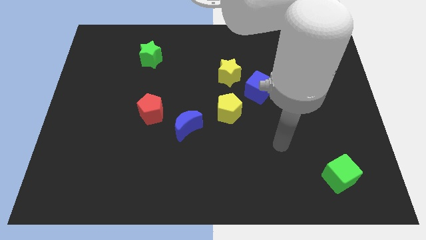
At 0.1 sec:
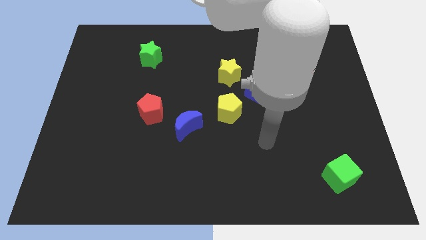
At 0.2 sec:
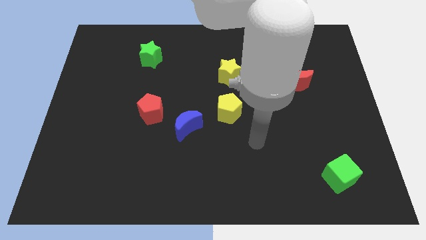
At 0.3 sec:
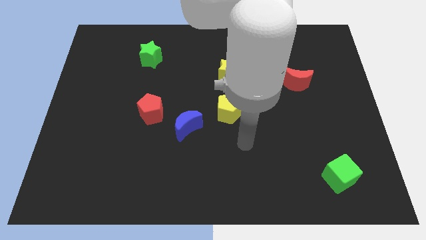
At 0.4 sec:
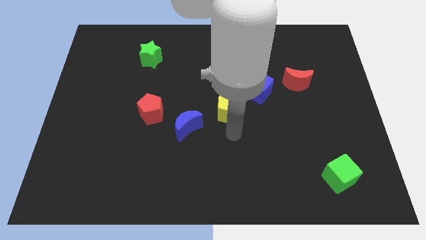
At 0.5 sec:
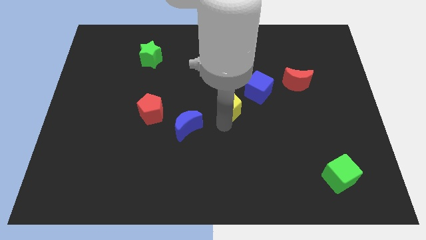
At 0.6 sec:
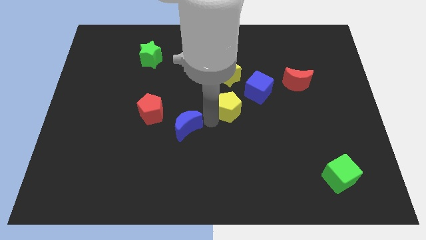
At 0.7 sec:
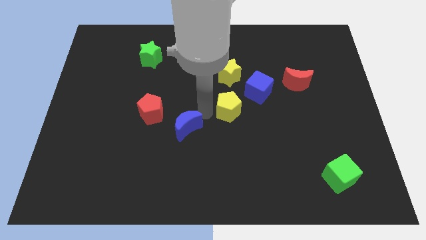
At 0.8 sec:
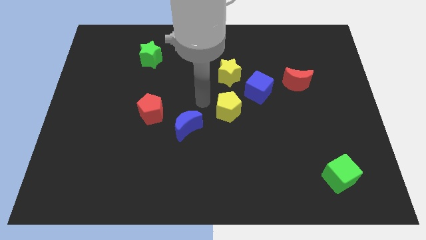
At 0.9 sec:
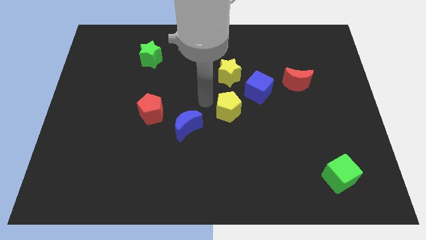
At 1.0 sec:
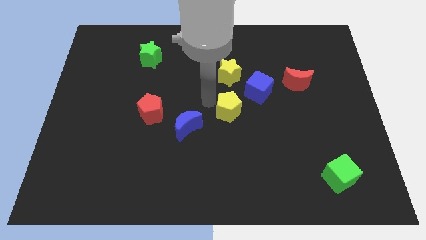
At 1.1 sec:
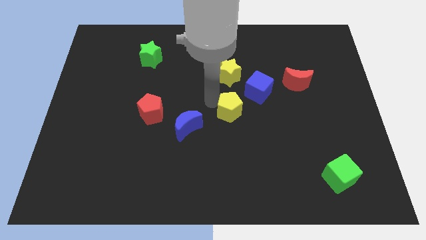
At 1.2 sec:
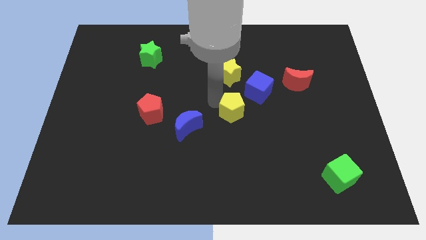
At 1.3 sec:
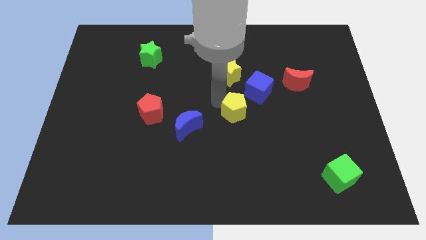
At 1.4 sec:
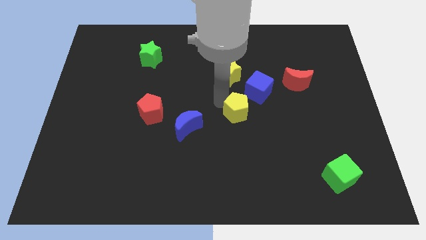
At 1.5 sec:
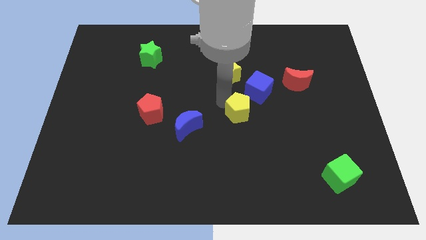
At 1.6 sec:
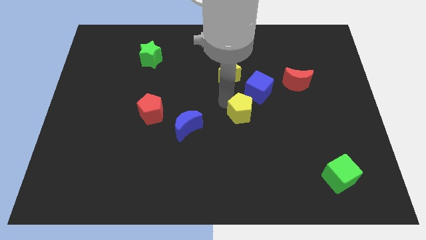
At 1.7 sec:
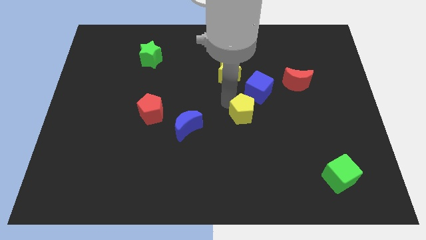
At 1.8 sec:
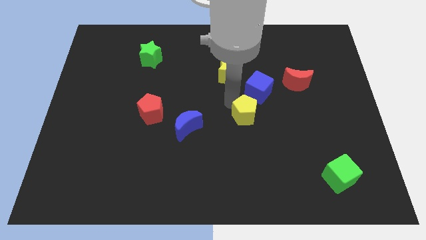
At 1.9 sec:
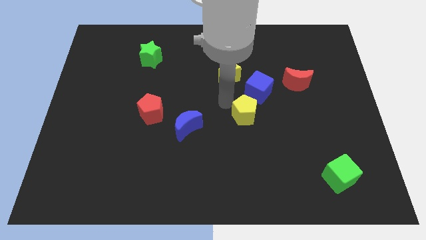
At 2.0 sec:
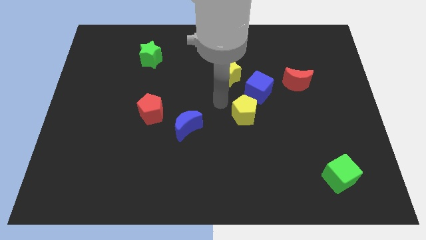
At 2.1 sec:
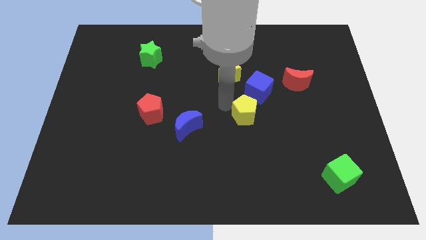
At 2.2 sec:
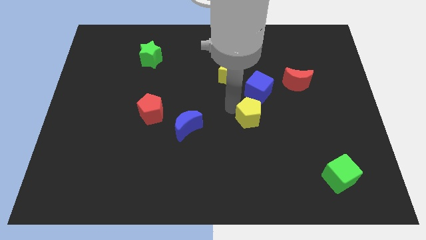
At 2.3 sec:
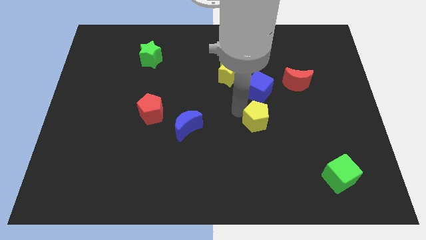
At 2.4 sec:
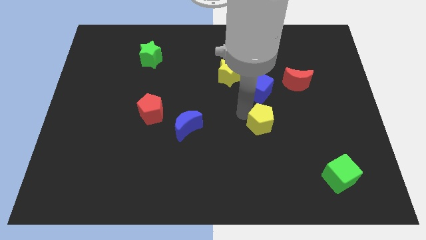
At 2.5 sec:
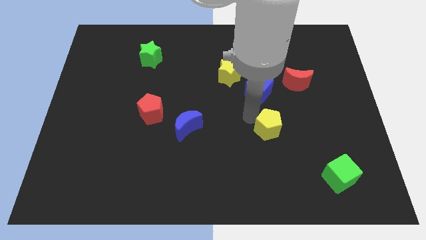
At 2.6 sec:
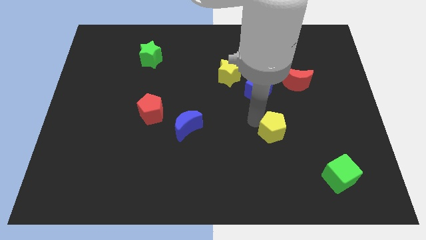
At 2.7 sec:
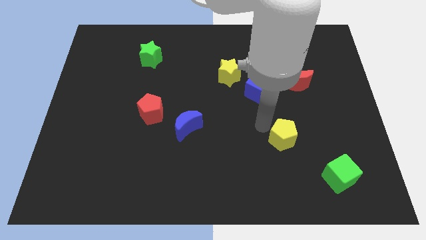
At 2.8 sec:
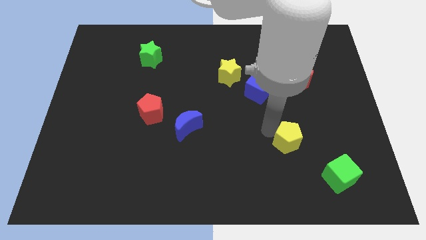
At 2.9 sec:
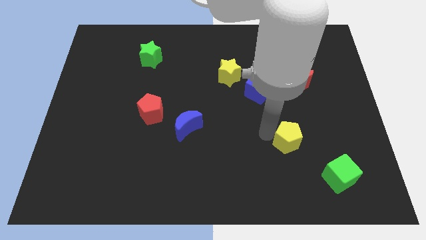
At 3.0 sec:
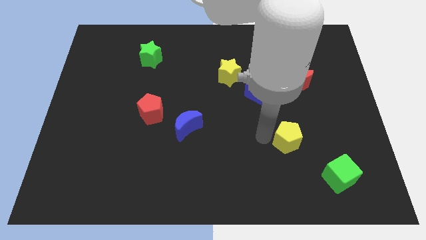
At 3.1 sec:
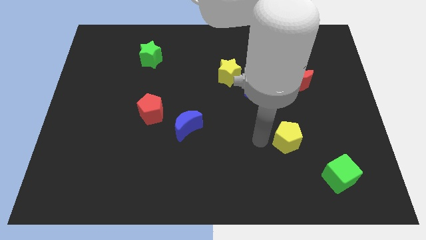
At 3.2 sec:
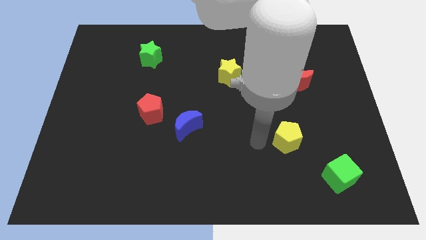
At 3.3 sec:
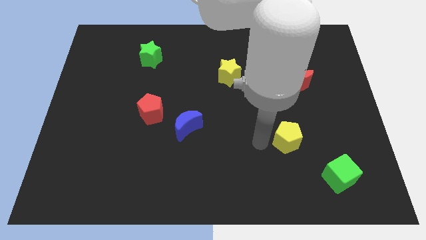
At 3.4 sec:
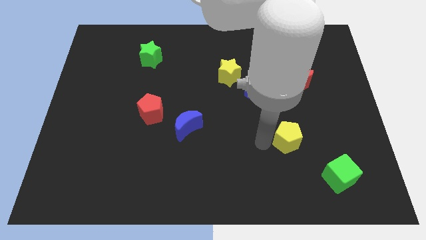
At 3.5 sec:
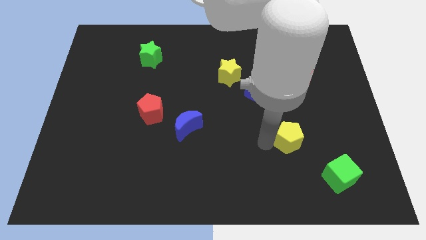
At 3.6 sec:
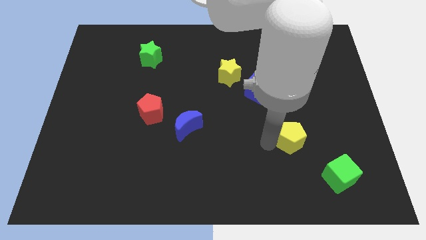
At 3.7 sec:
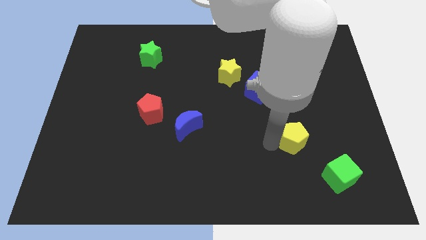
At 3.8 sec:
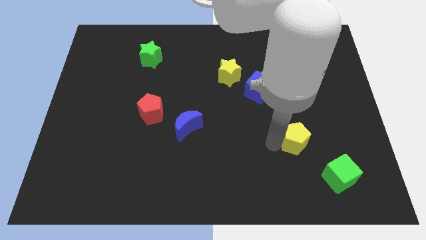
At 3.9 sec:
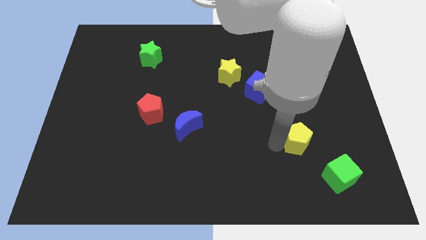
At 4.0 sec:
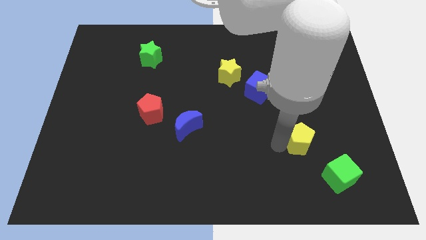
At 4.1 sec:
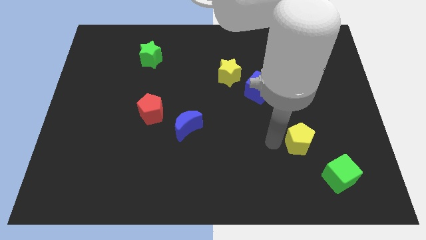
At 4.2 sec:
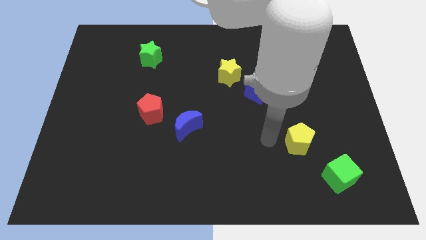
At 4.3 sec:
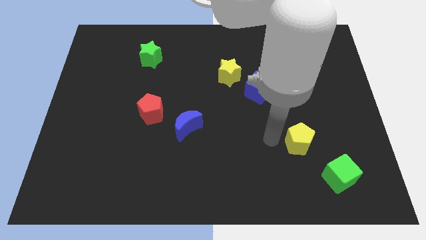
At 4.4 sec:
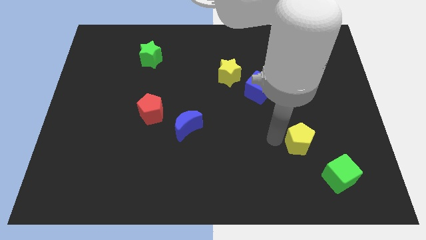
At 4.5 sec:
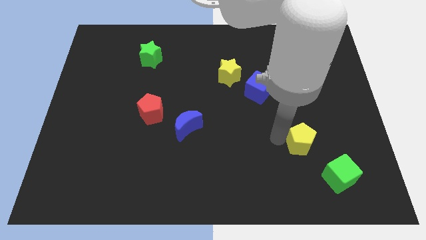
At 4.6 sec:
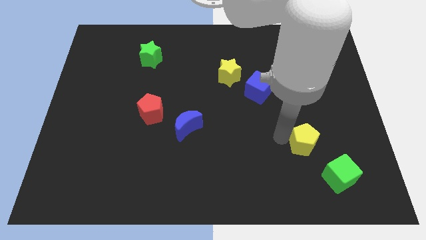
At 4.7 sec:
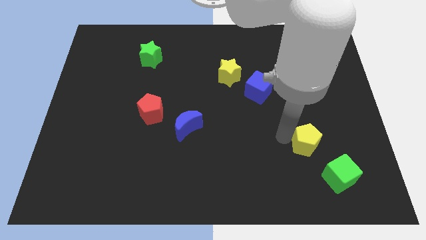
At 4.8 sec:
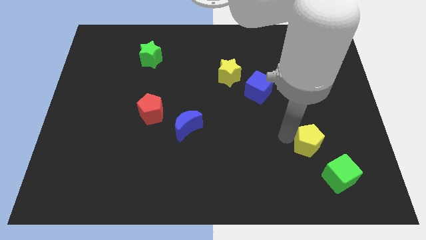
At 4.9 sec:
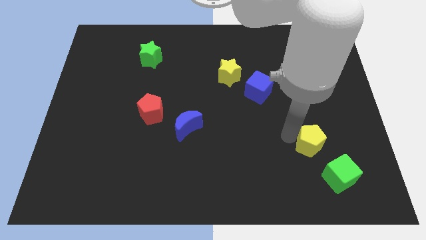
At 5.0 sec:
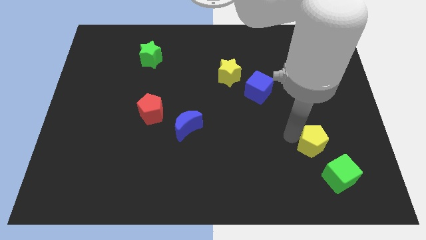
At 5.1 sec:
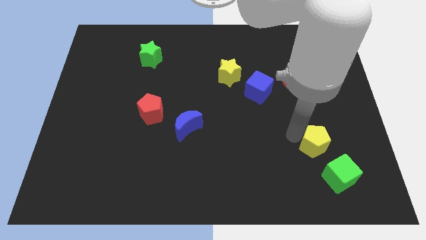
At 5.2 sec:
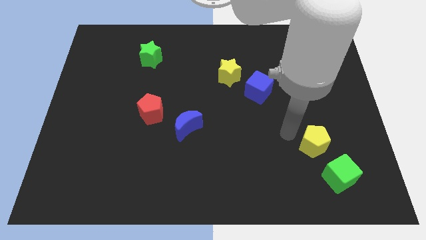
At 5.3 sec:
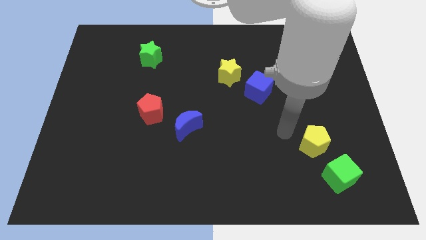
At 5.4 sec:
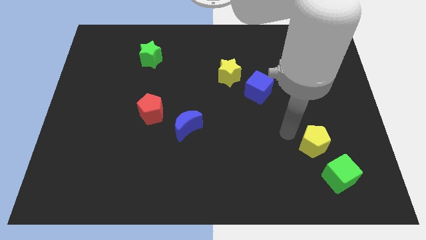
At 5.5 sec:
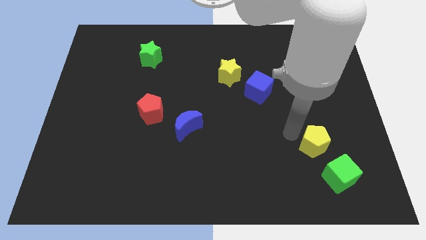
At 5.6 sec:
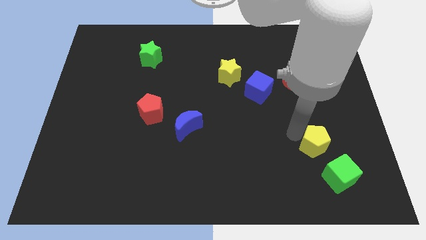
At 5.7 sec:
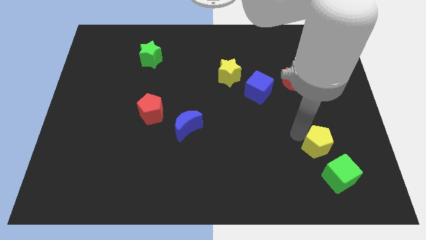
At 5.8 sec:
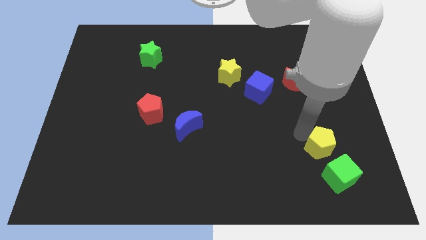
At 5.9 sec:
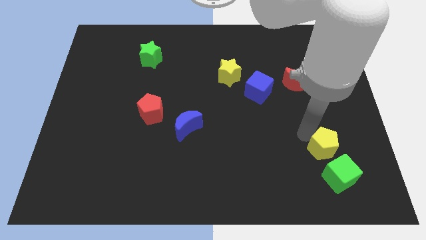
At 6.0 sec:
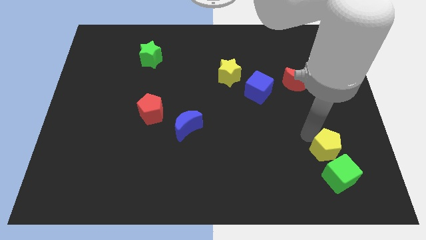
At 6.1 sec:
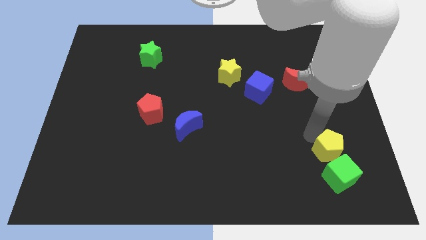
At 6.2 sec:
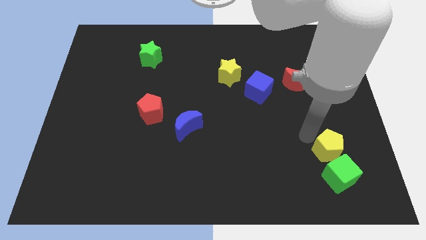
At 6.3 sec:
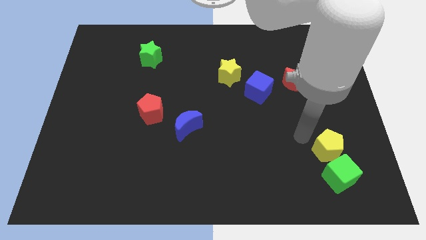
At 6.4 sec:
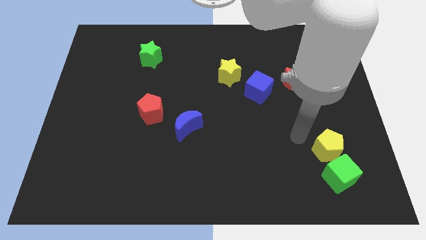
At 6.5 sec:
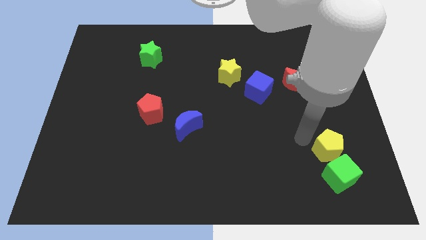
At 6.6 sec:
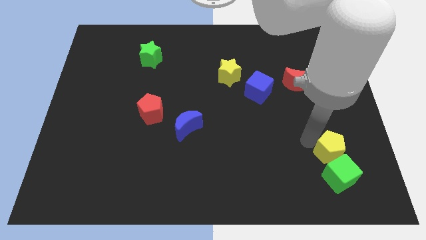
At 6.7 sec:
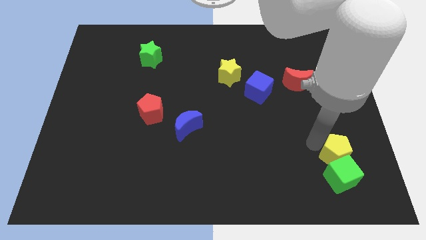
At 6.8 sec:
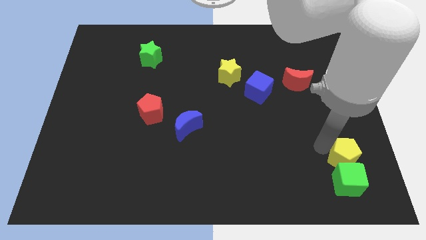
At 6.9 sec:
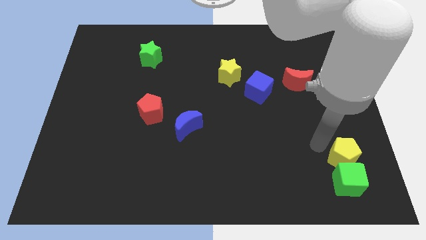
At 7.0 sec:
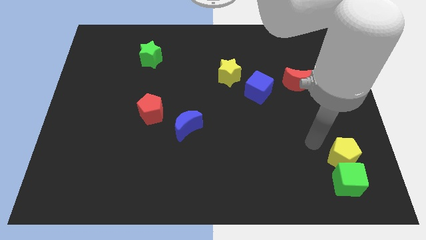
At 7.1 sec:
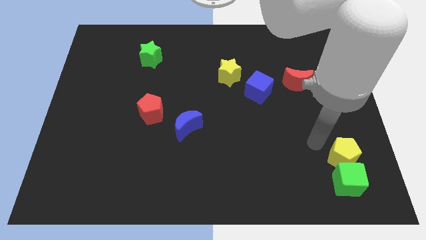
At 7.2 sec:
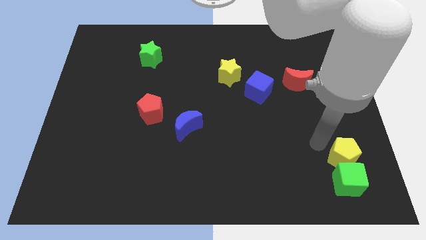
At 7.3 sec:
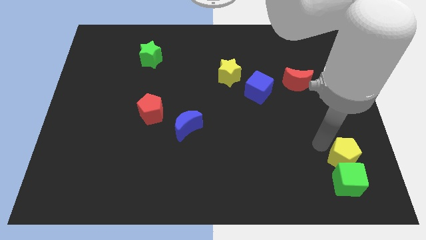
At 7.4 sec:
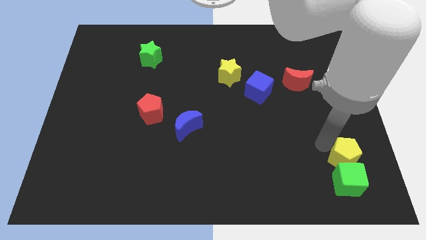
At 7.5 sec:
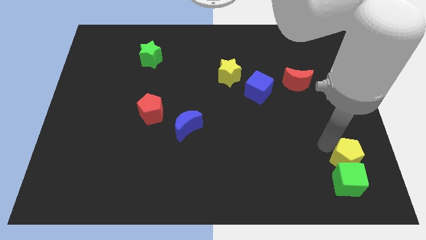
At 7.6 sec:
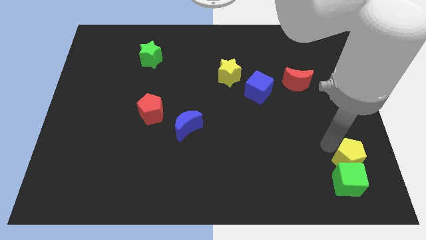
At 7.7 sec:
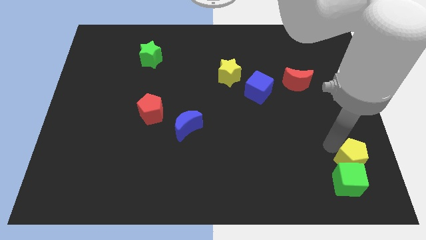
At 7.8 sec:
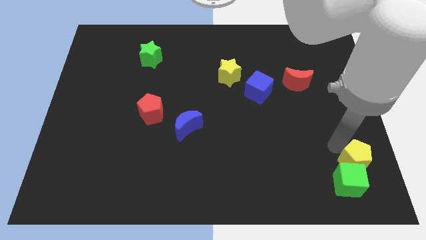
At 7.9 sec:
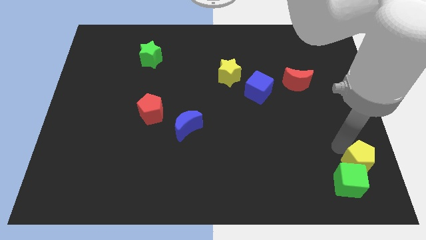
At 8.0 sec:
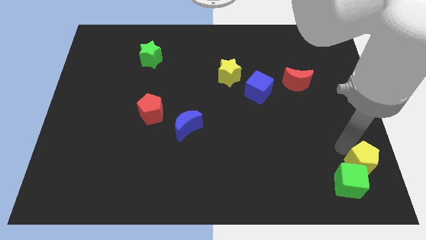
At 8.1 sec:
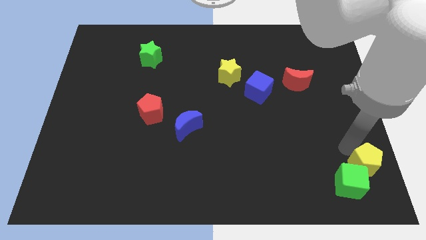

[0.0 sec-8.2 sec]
slide the yellow pentagon to the bottom right of the board
